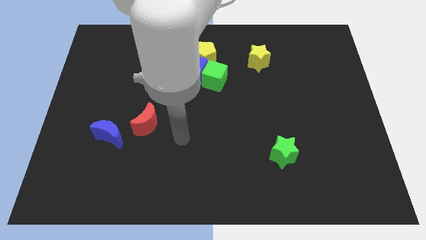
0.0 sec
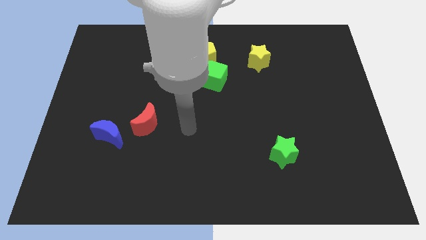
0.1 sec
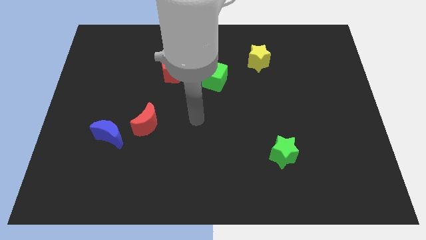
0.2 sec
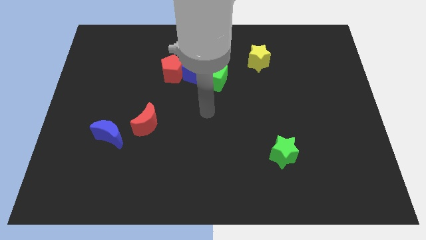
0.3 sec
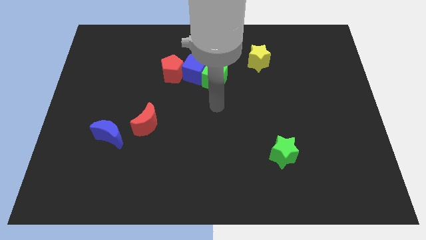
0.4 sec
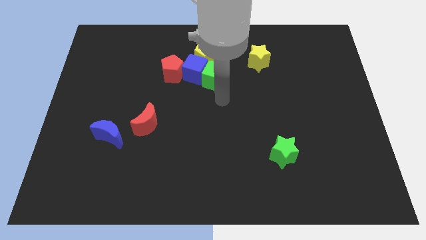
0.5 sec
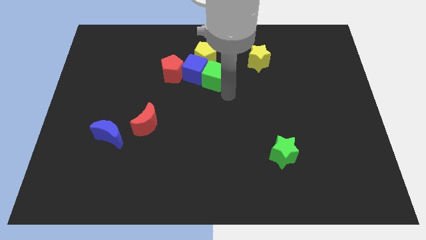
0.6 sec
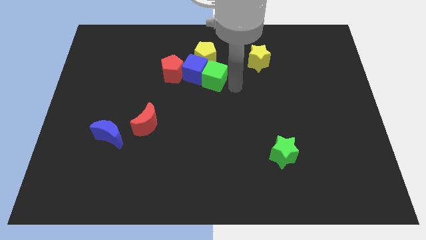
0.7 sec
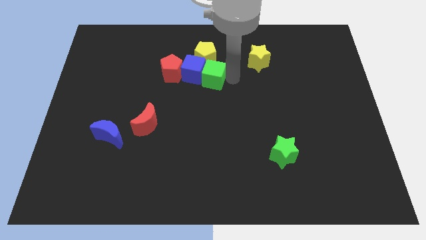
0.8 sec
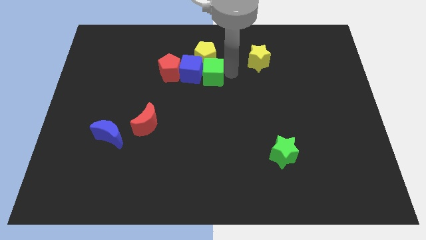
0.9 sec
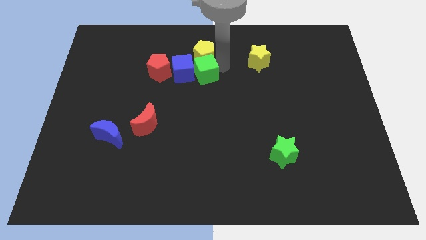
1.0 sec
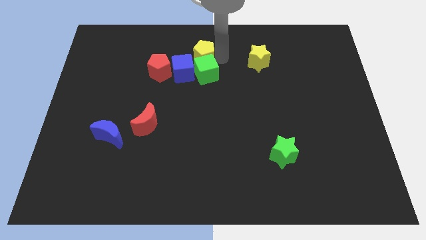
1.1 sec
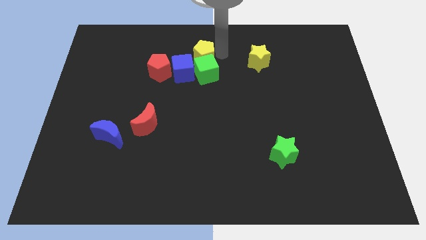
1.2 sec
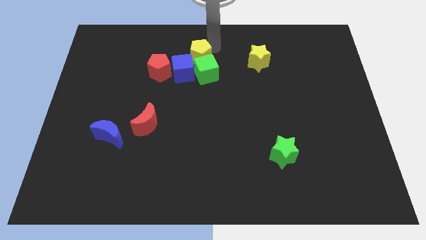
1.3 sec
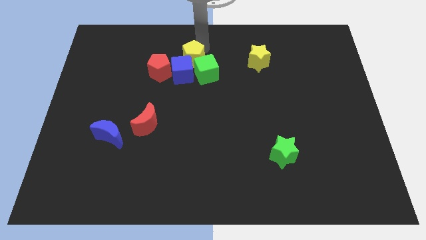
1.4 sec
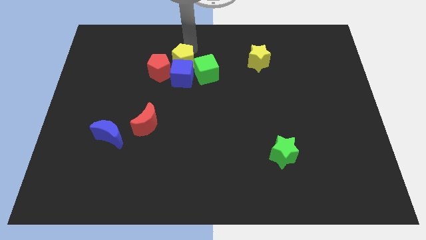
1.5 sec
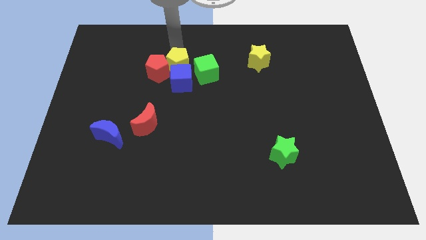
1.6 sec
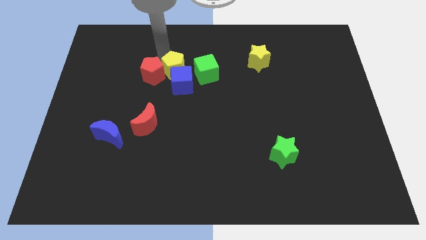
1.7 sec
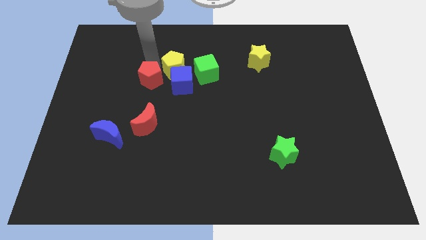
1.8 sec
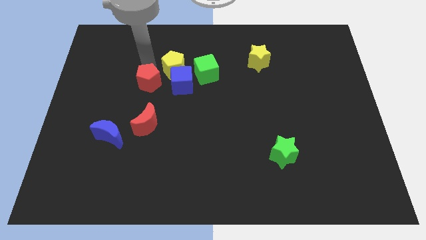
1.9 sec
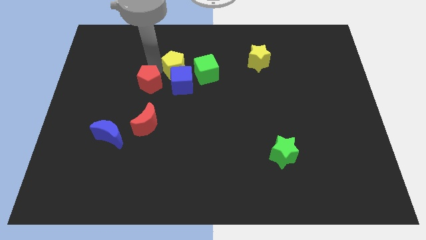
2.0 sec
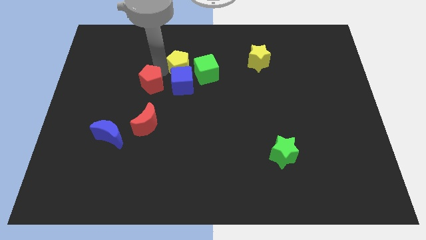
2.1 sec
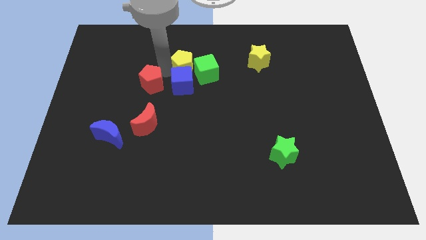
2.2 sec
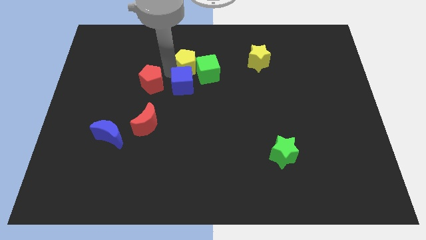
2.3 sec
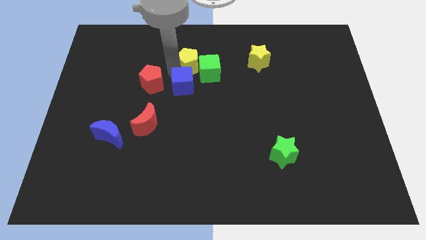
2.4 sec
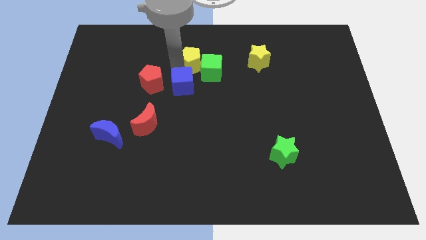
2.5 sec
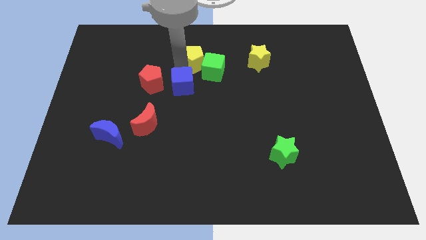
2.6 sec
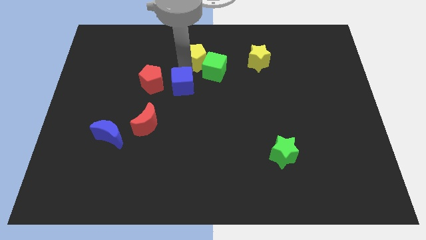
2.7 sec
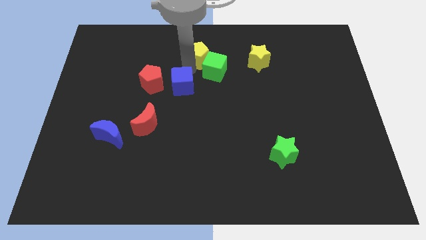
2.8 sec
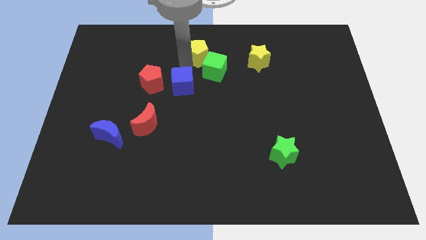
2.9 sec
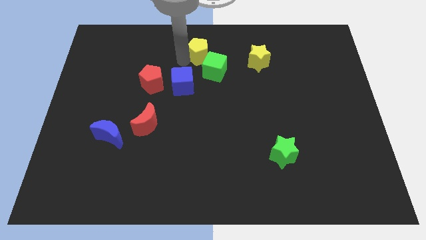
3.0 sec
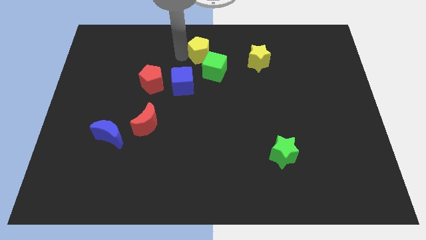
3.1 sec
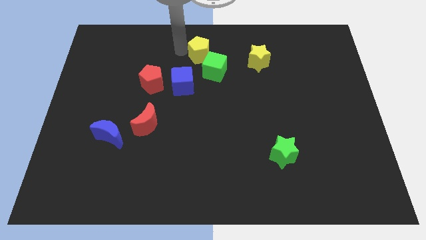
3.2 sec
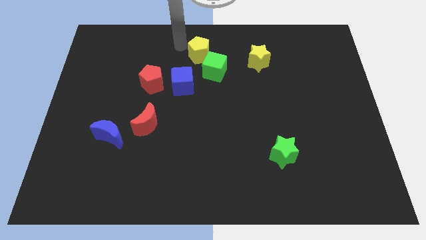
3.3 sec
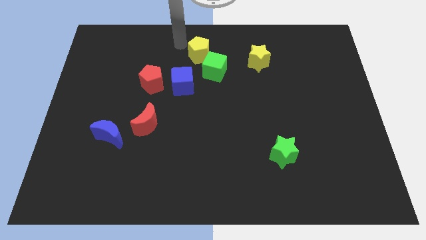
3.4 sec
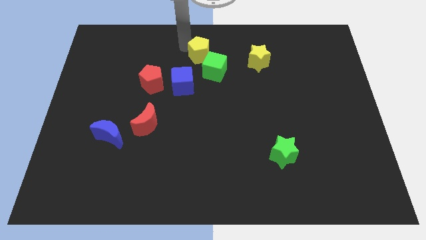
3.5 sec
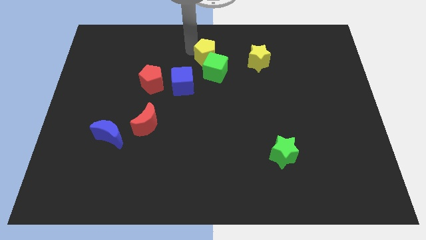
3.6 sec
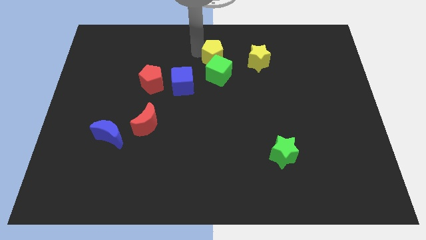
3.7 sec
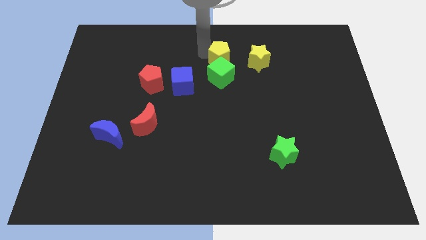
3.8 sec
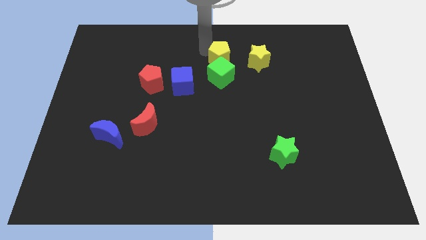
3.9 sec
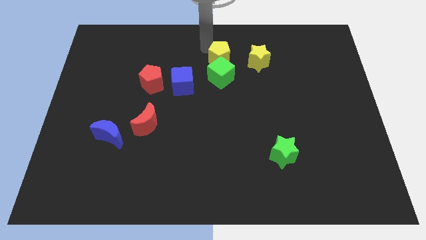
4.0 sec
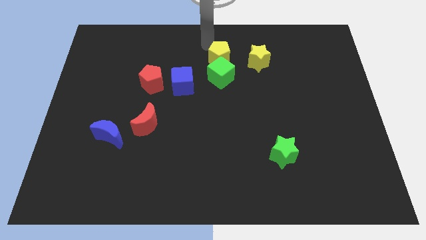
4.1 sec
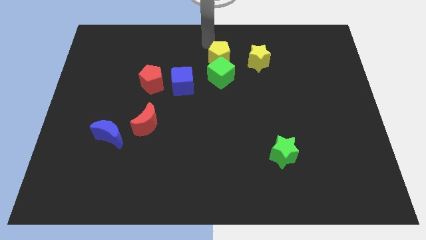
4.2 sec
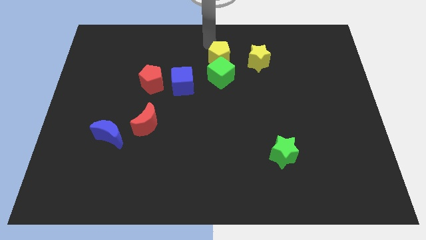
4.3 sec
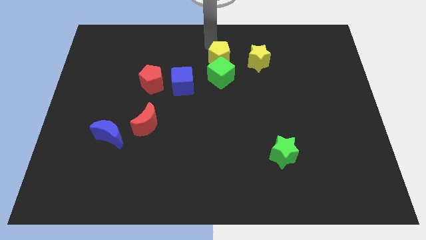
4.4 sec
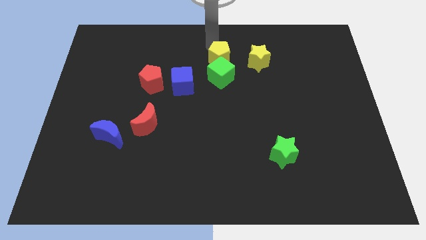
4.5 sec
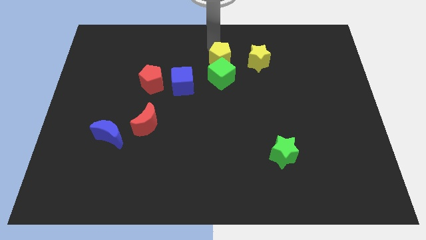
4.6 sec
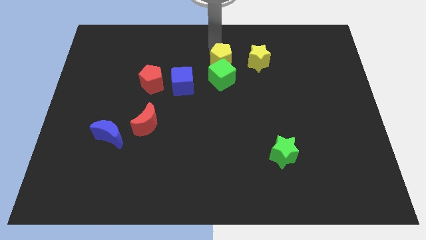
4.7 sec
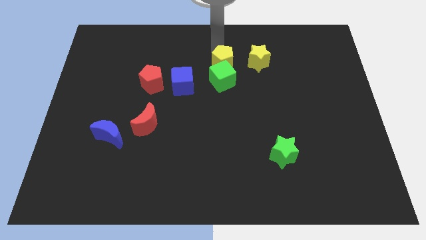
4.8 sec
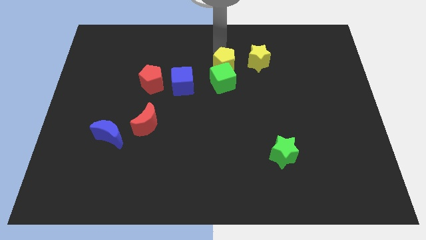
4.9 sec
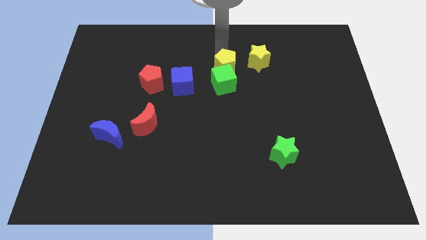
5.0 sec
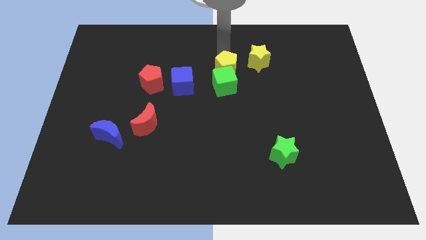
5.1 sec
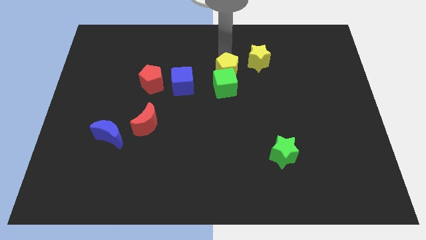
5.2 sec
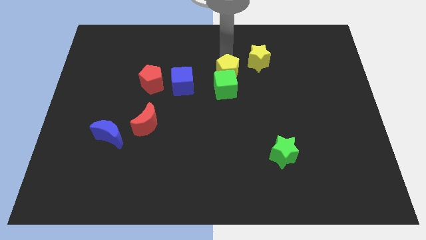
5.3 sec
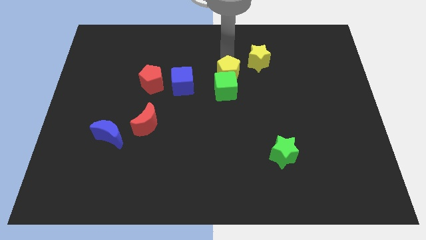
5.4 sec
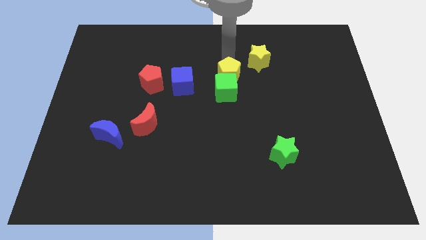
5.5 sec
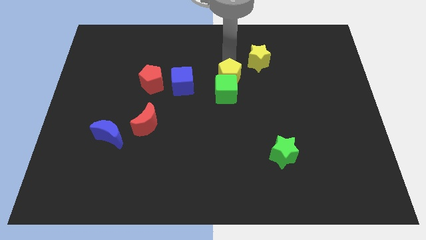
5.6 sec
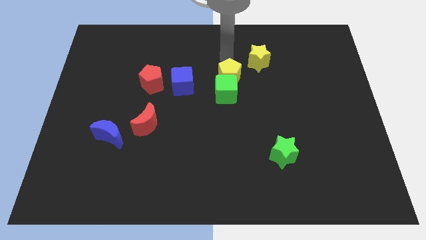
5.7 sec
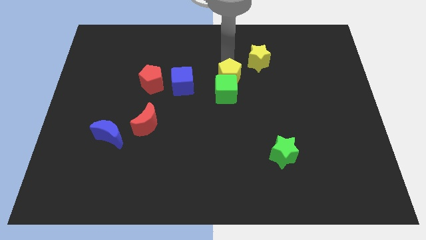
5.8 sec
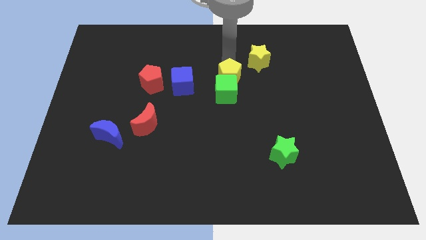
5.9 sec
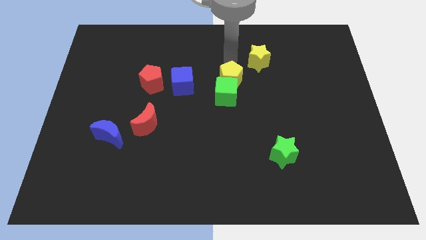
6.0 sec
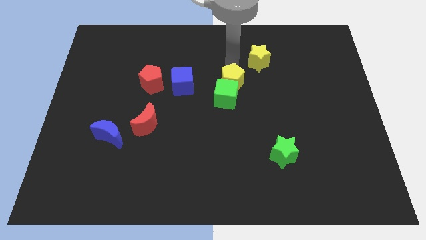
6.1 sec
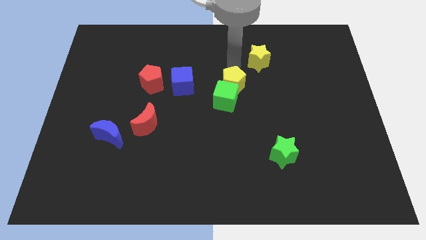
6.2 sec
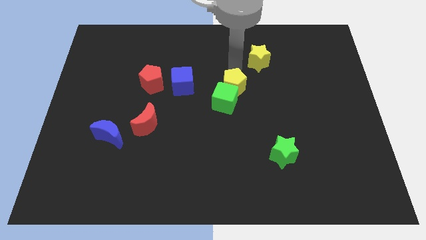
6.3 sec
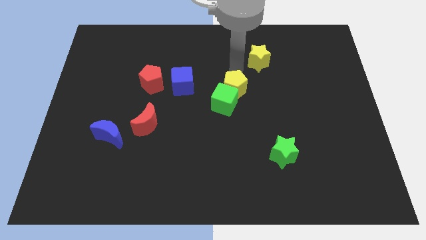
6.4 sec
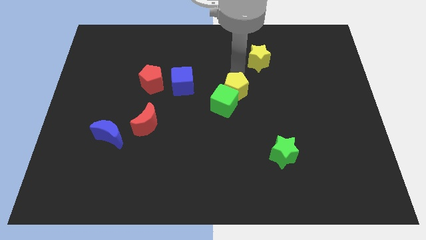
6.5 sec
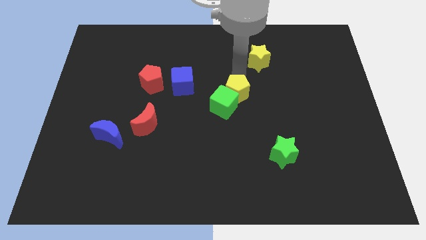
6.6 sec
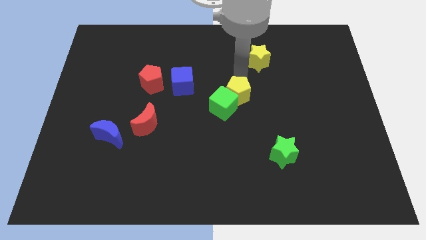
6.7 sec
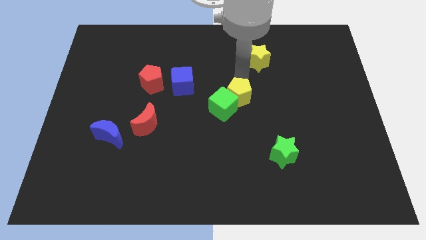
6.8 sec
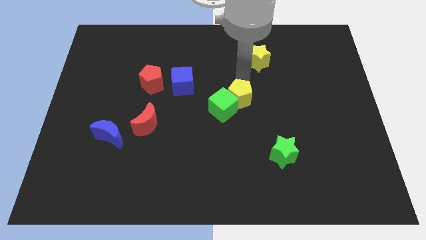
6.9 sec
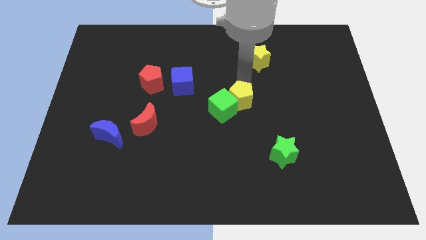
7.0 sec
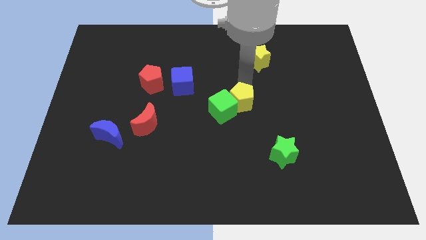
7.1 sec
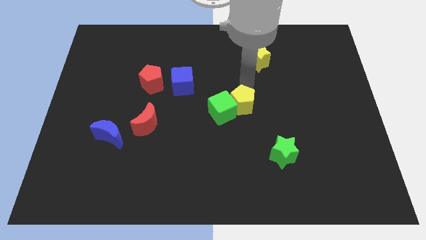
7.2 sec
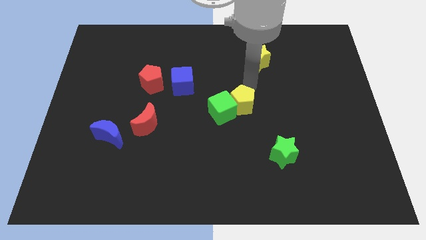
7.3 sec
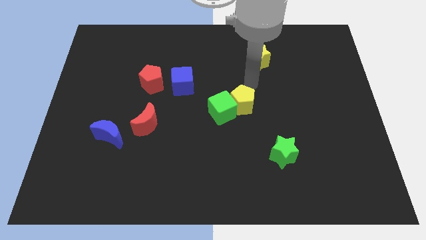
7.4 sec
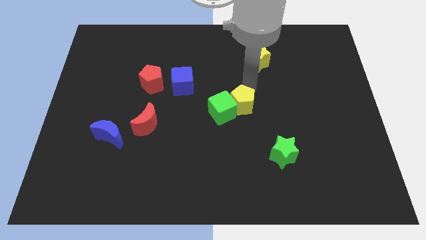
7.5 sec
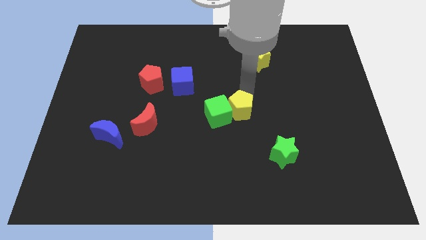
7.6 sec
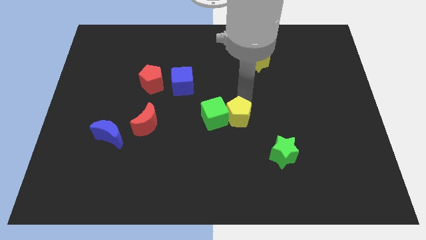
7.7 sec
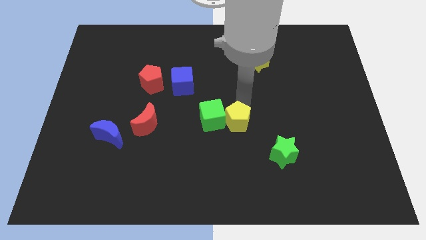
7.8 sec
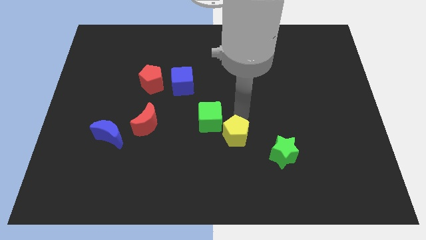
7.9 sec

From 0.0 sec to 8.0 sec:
slide the yellow pentagon downwards
